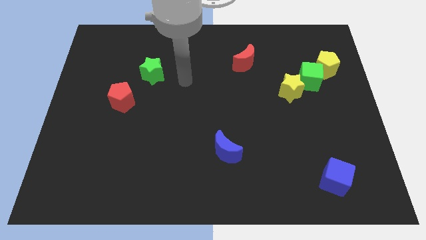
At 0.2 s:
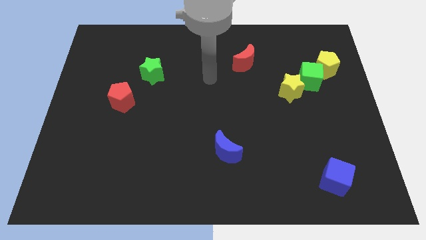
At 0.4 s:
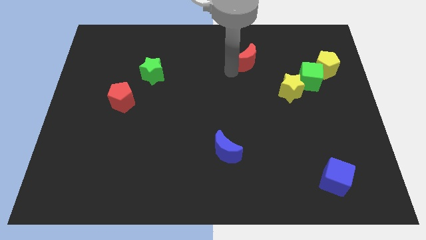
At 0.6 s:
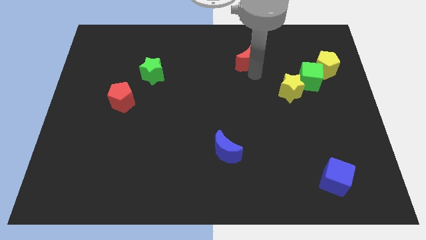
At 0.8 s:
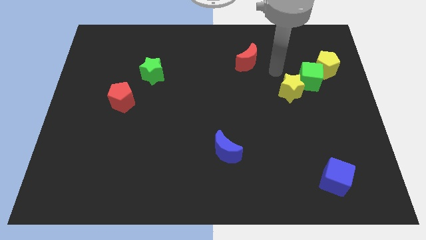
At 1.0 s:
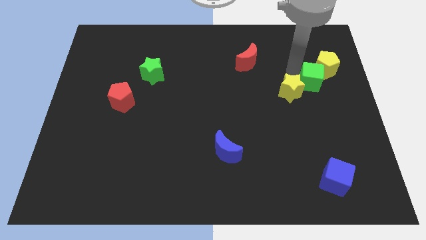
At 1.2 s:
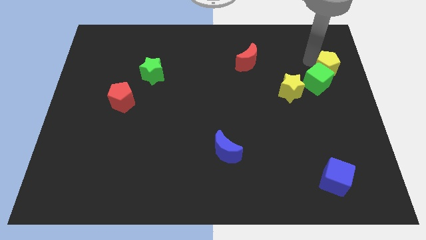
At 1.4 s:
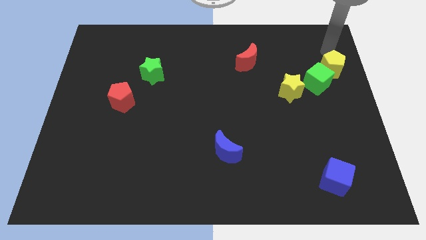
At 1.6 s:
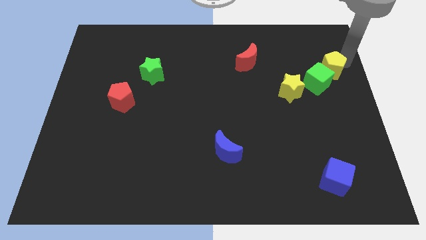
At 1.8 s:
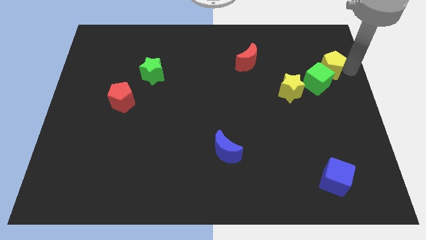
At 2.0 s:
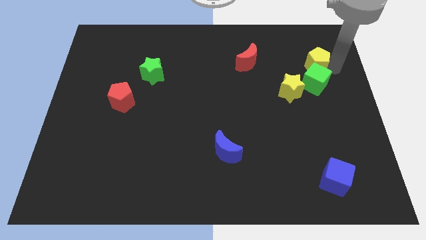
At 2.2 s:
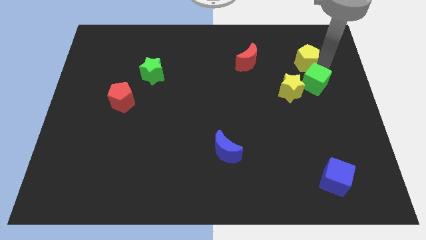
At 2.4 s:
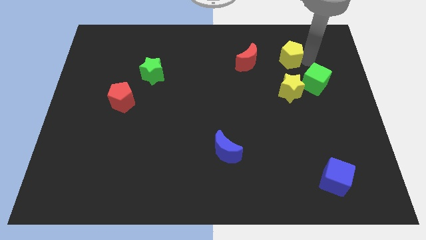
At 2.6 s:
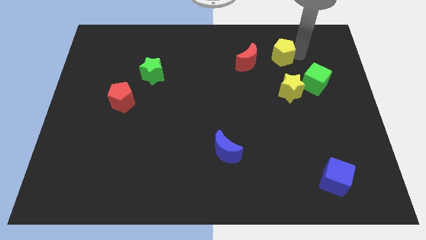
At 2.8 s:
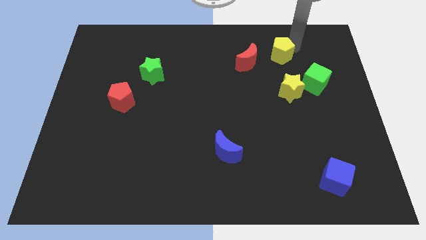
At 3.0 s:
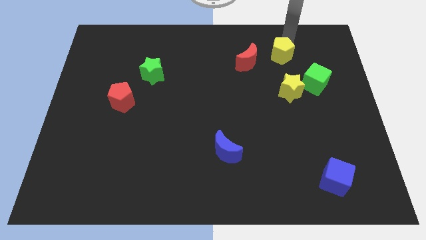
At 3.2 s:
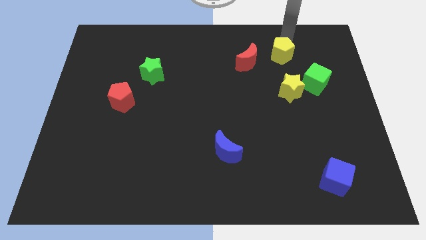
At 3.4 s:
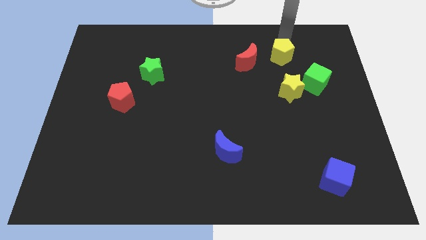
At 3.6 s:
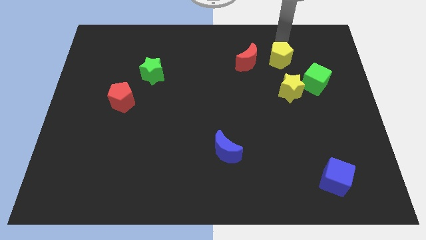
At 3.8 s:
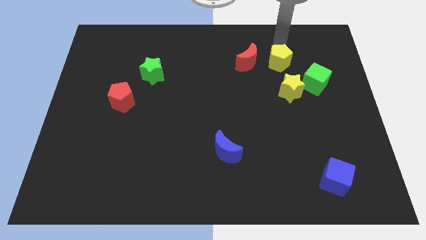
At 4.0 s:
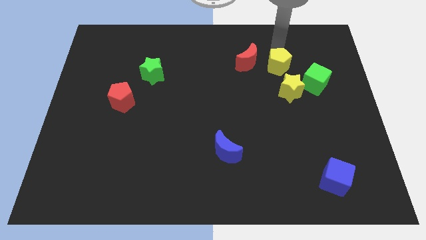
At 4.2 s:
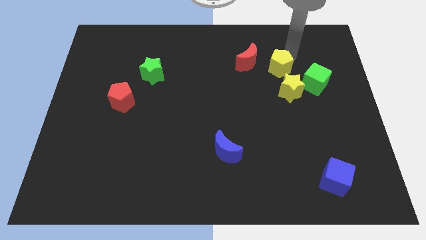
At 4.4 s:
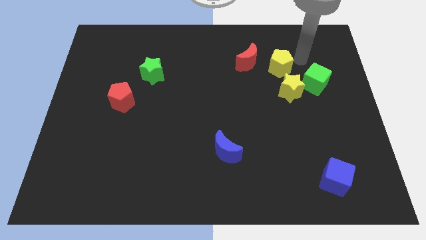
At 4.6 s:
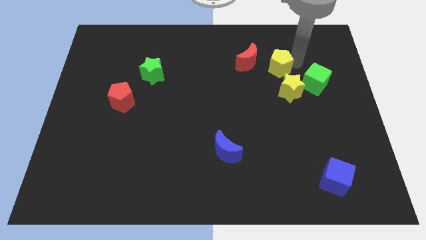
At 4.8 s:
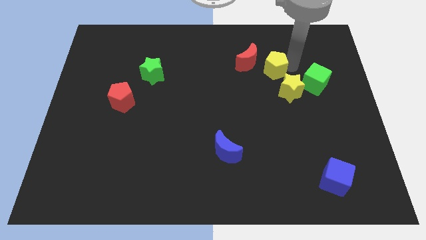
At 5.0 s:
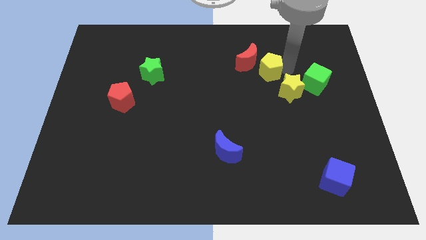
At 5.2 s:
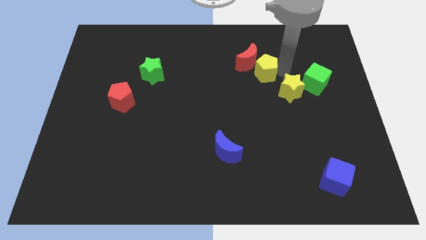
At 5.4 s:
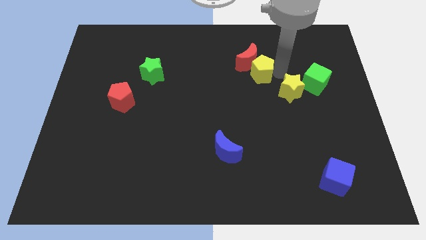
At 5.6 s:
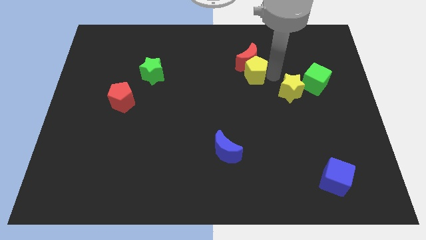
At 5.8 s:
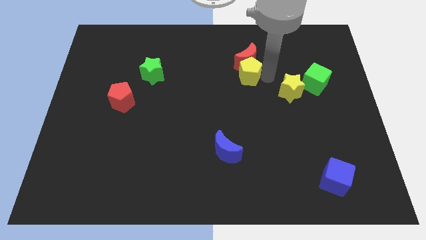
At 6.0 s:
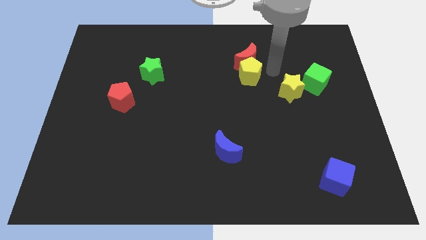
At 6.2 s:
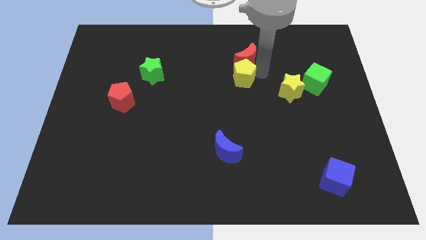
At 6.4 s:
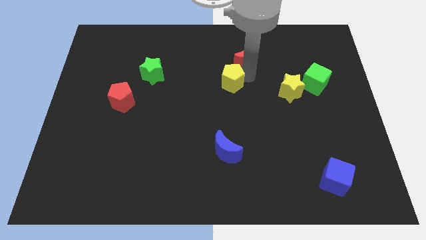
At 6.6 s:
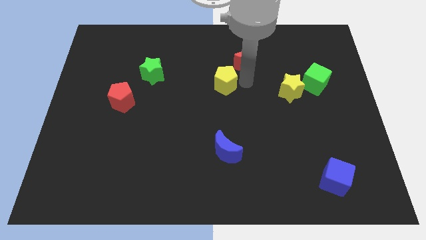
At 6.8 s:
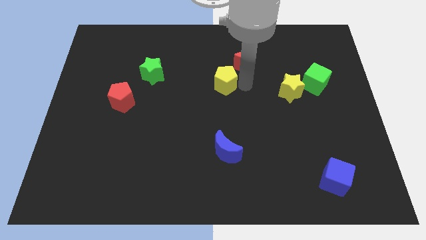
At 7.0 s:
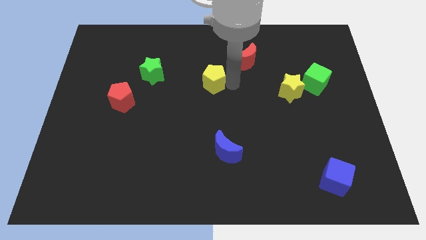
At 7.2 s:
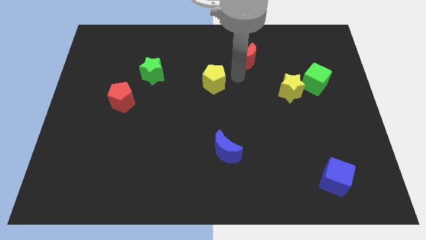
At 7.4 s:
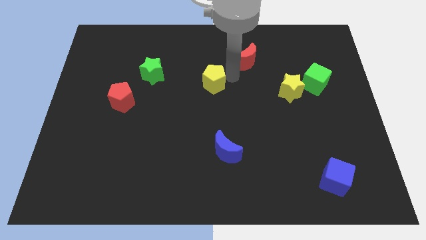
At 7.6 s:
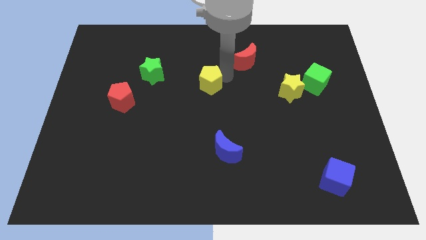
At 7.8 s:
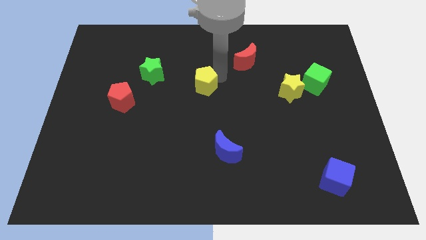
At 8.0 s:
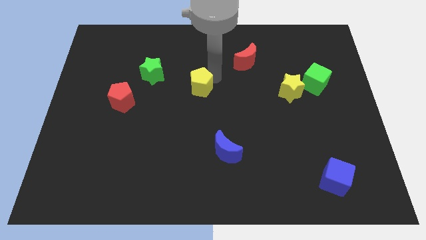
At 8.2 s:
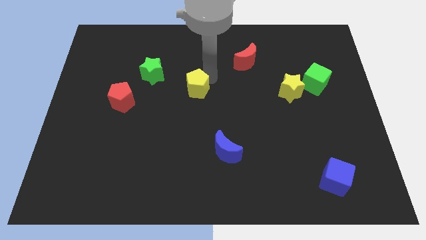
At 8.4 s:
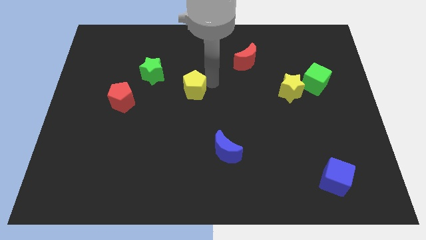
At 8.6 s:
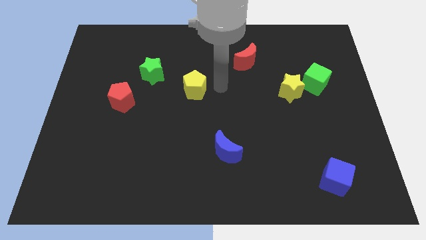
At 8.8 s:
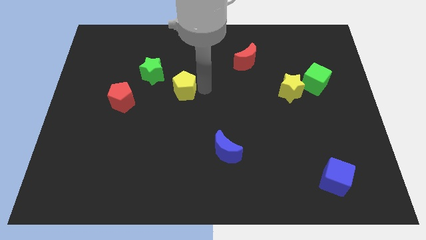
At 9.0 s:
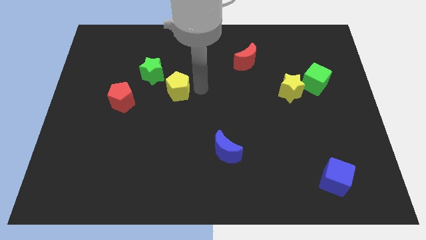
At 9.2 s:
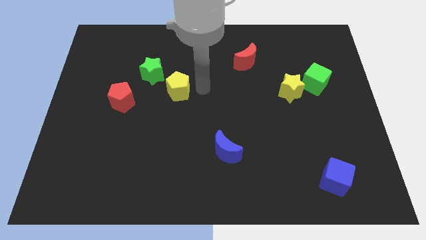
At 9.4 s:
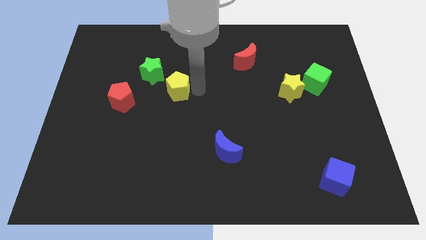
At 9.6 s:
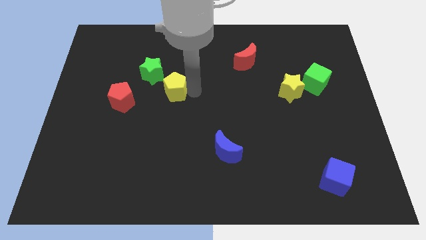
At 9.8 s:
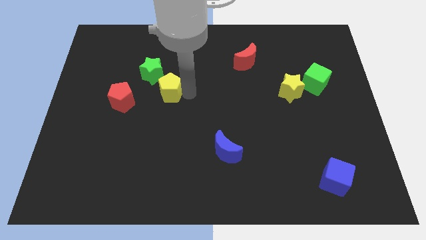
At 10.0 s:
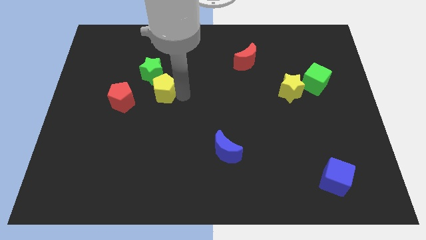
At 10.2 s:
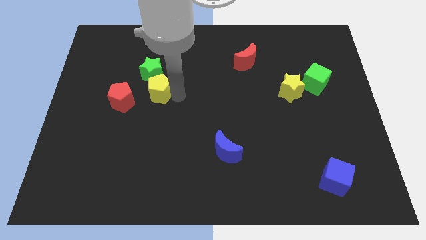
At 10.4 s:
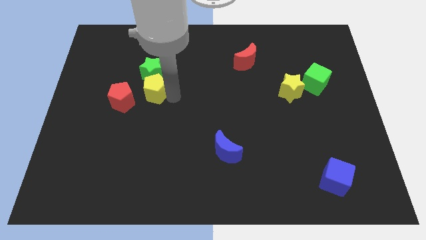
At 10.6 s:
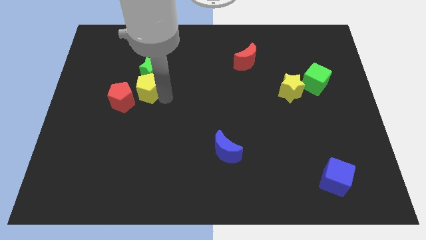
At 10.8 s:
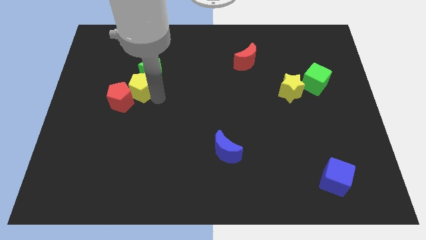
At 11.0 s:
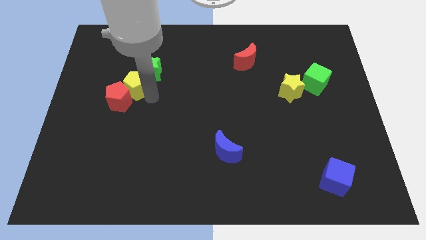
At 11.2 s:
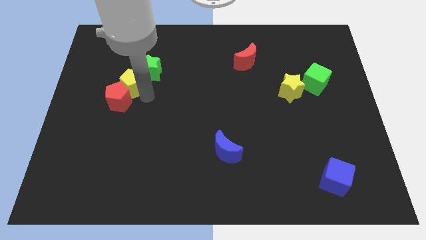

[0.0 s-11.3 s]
move the yellow pentagon left of the green star

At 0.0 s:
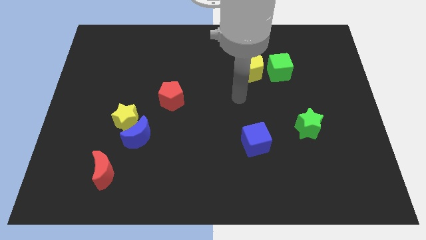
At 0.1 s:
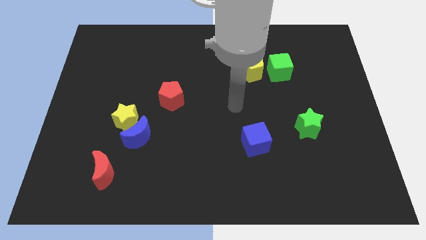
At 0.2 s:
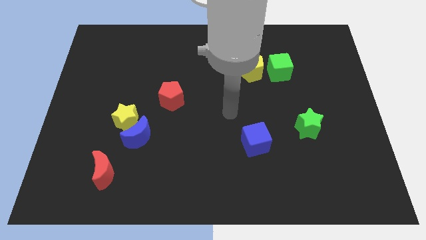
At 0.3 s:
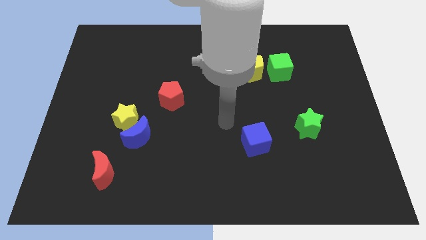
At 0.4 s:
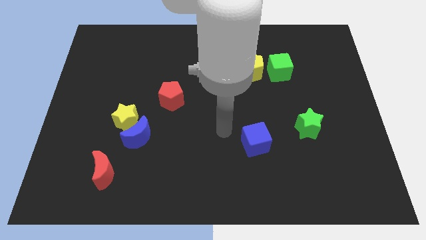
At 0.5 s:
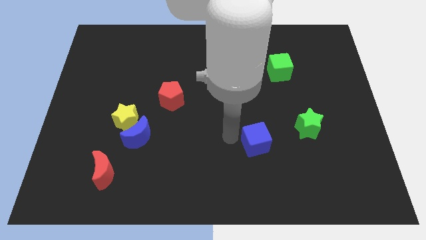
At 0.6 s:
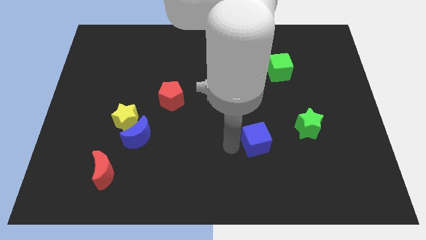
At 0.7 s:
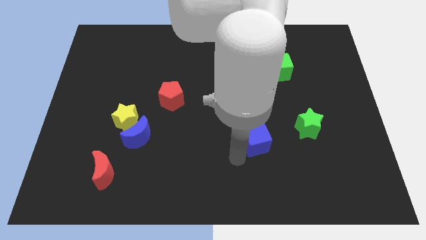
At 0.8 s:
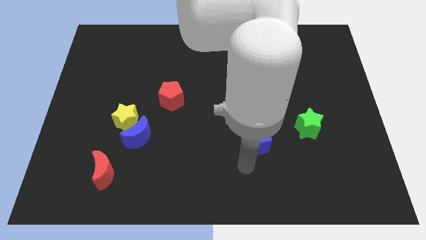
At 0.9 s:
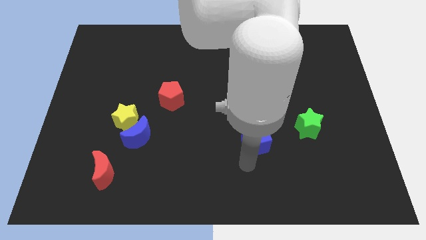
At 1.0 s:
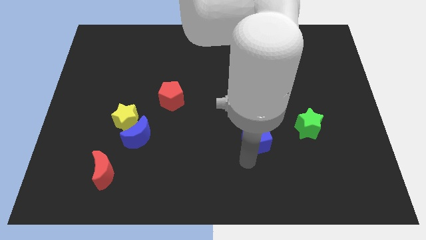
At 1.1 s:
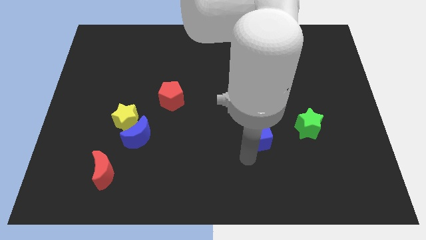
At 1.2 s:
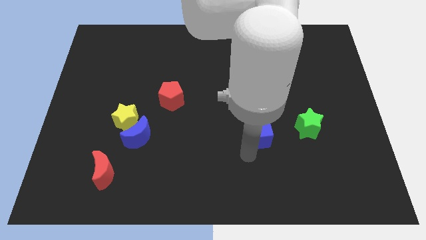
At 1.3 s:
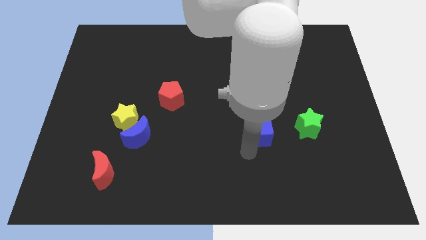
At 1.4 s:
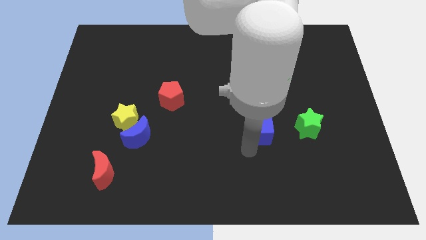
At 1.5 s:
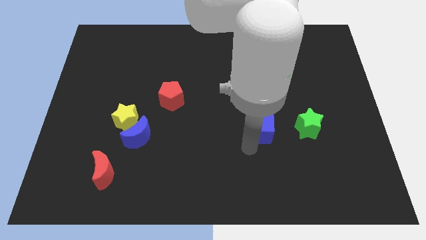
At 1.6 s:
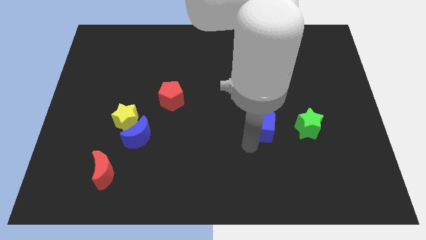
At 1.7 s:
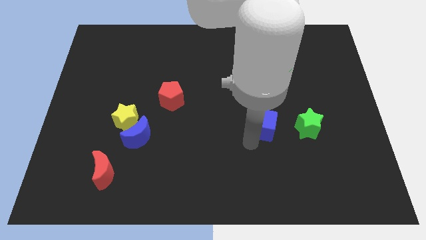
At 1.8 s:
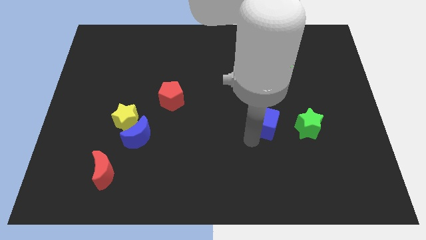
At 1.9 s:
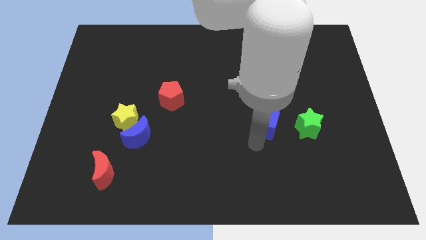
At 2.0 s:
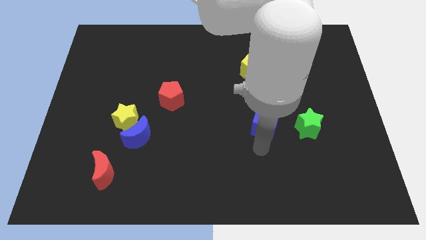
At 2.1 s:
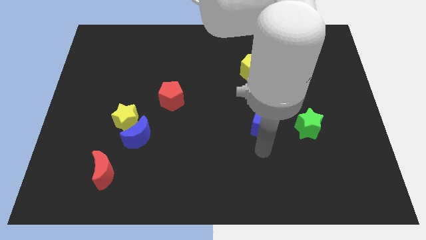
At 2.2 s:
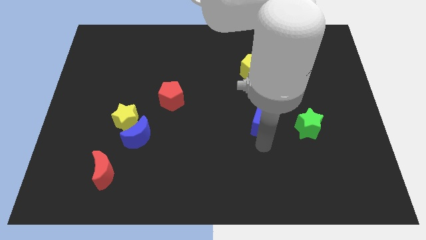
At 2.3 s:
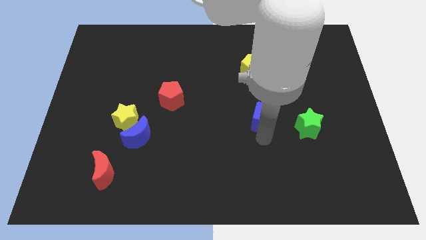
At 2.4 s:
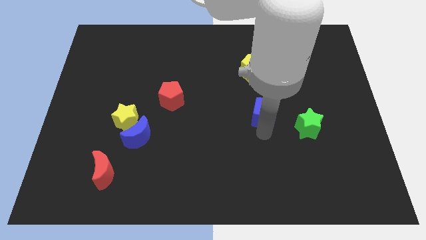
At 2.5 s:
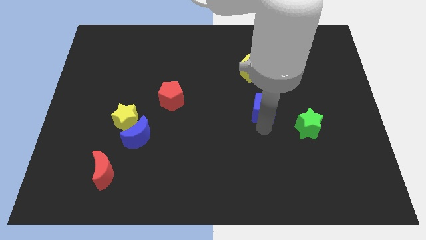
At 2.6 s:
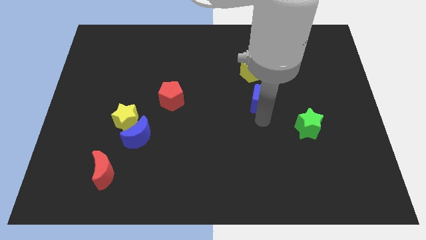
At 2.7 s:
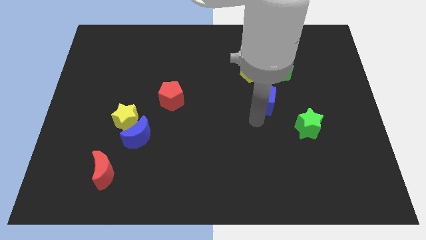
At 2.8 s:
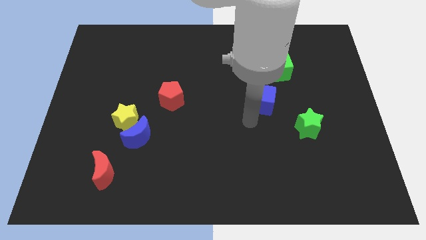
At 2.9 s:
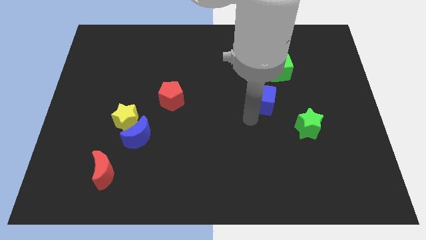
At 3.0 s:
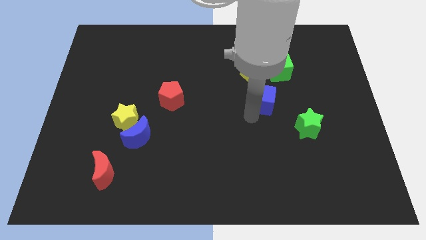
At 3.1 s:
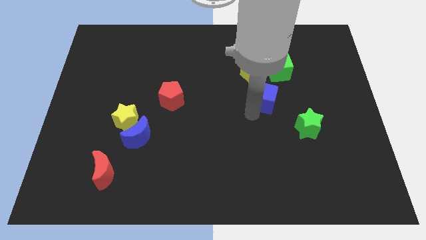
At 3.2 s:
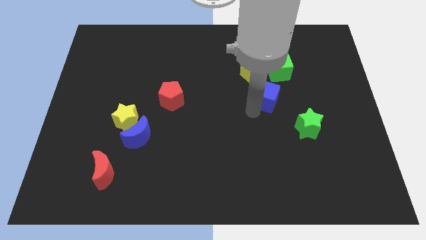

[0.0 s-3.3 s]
move the blue cube to the bottom right side of the yellow pentagon
